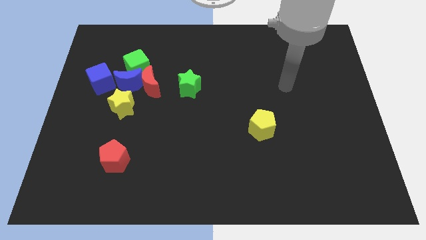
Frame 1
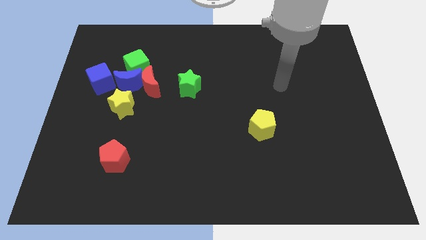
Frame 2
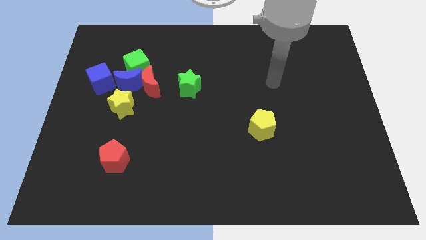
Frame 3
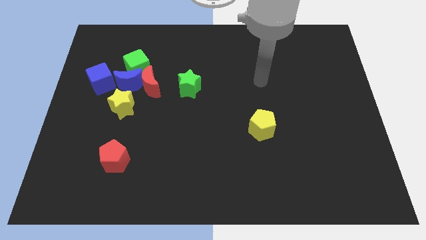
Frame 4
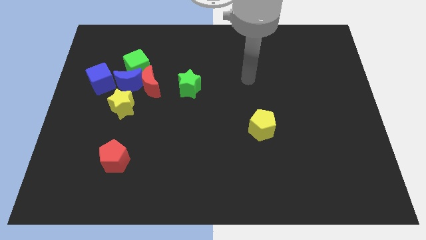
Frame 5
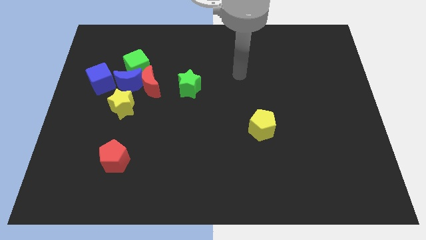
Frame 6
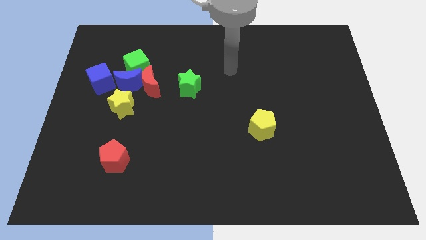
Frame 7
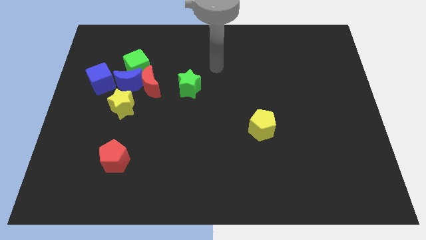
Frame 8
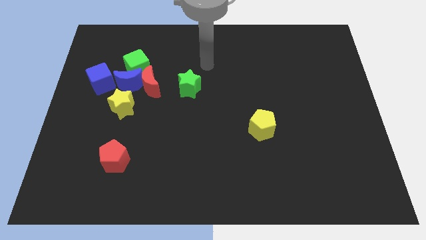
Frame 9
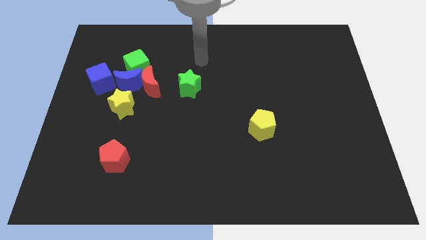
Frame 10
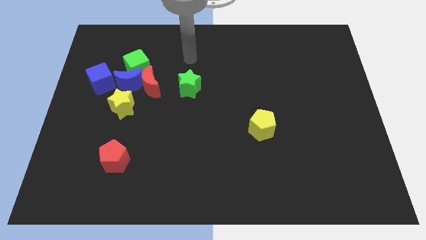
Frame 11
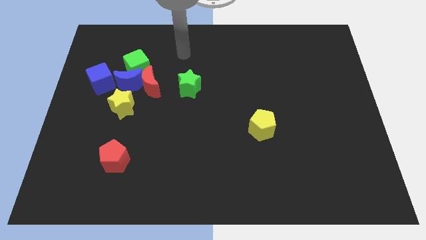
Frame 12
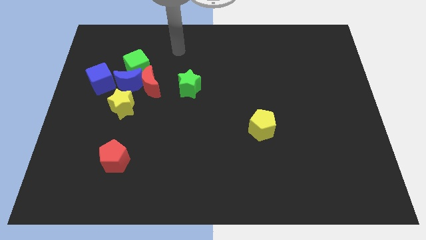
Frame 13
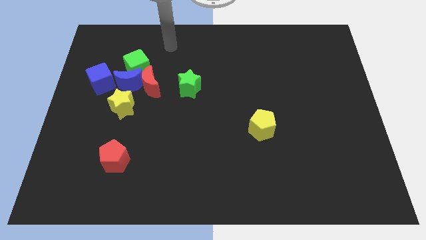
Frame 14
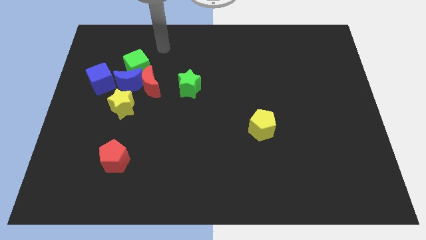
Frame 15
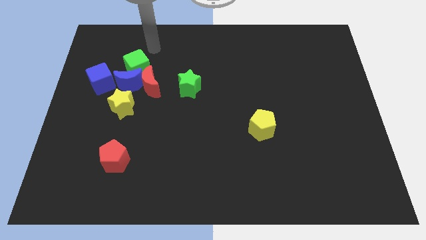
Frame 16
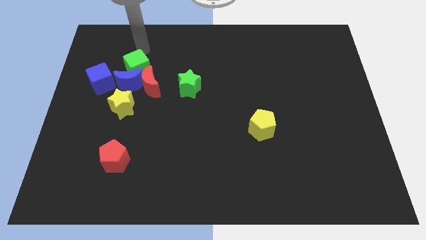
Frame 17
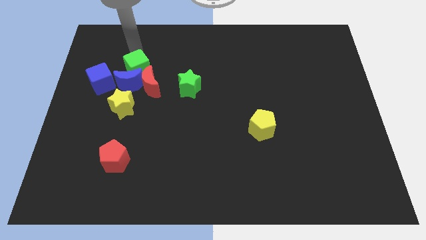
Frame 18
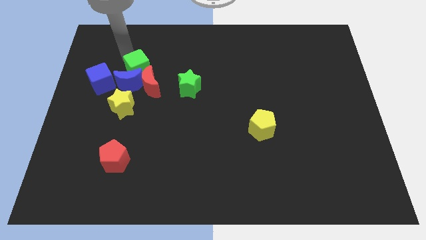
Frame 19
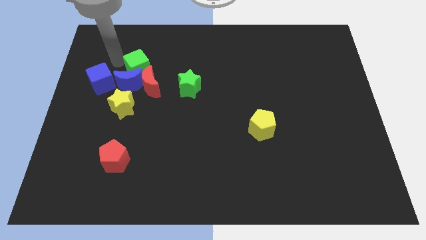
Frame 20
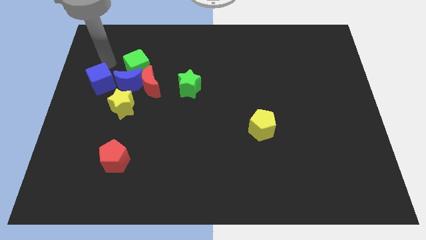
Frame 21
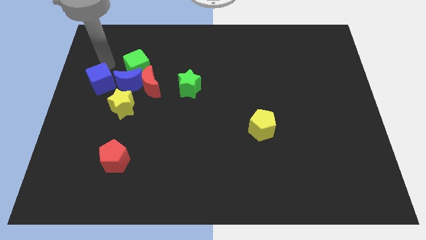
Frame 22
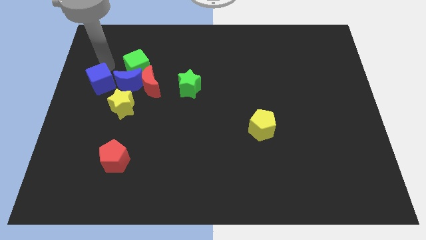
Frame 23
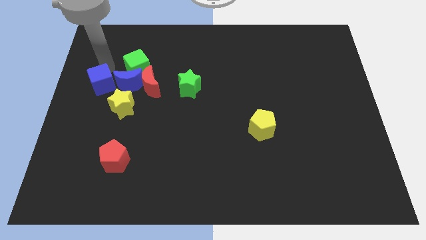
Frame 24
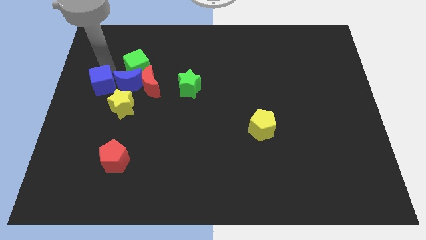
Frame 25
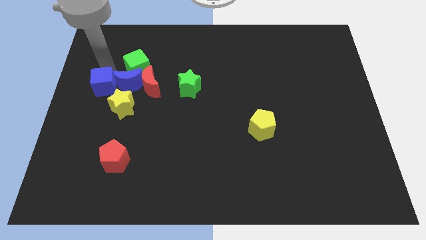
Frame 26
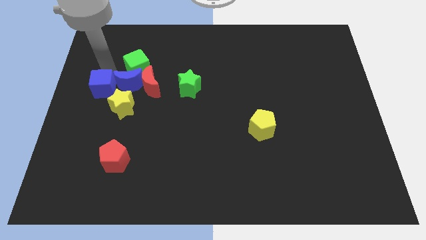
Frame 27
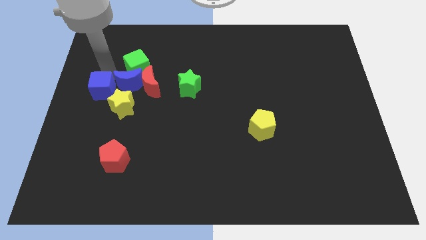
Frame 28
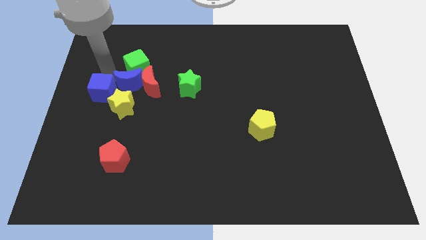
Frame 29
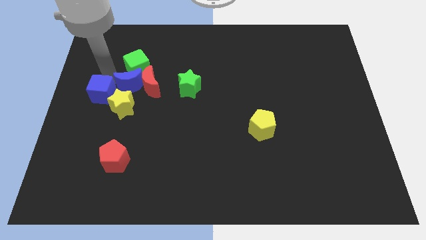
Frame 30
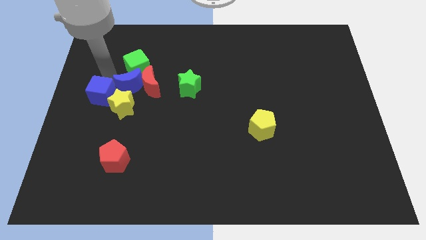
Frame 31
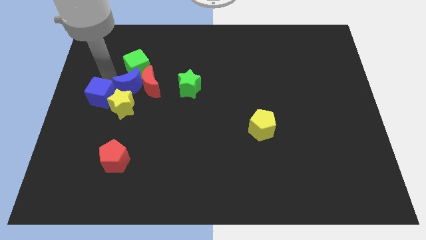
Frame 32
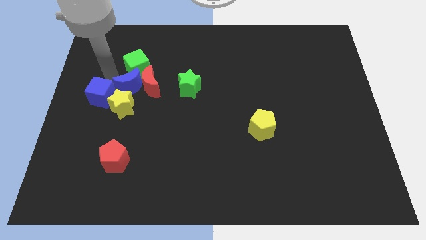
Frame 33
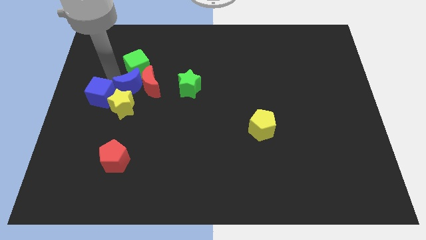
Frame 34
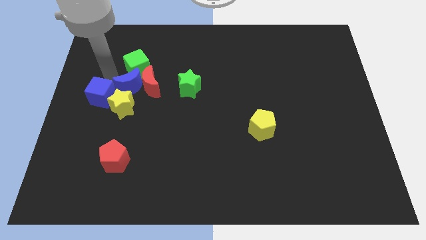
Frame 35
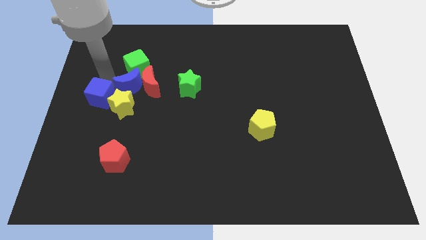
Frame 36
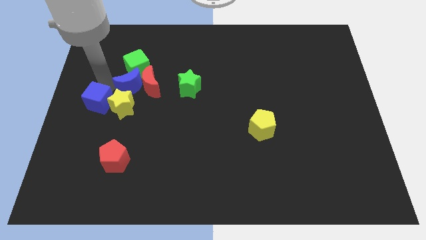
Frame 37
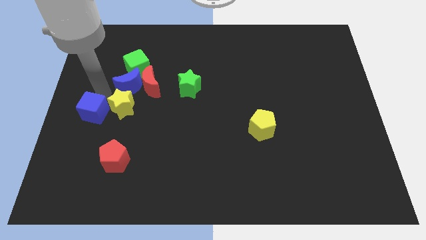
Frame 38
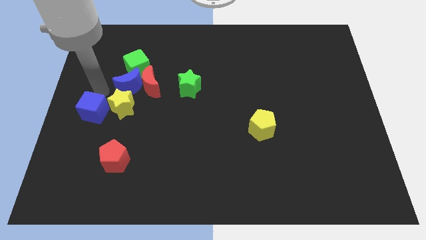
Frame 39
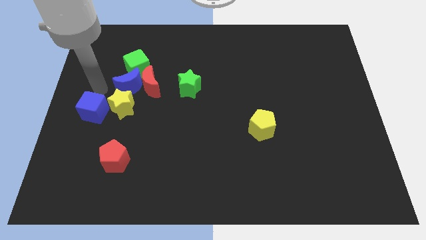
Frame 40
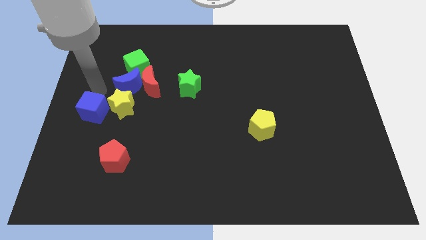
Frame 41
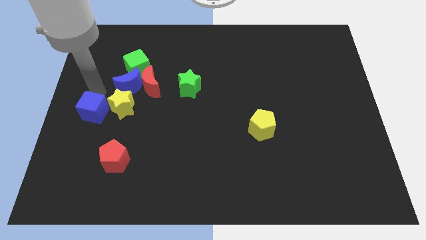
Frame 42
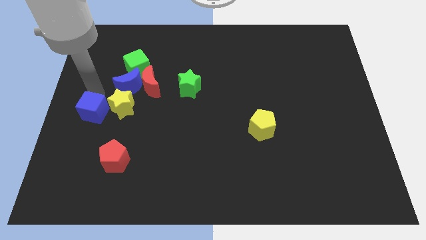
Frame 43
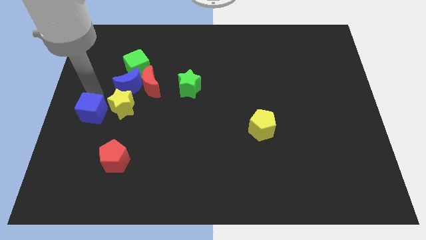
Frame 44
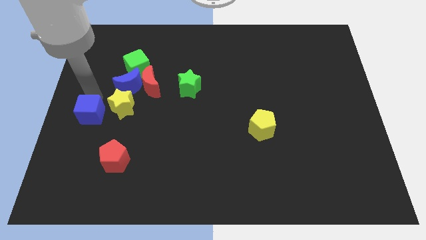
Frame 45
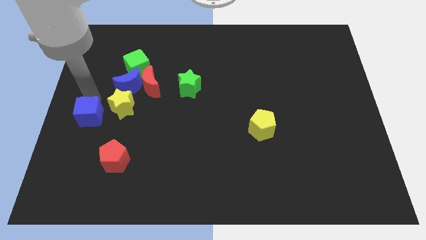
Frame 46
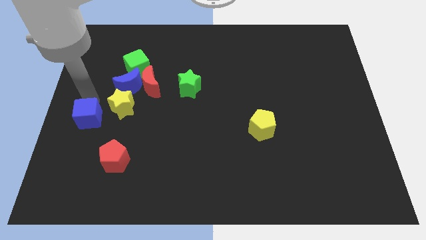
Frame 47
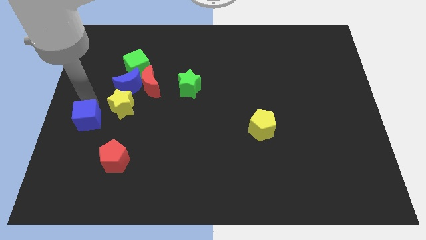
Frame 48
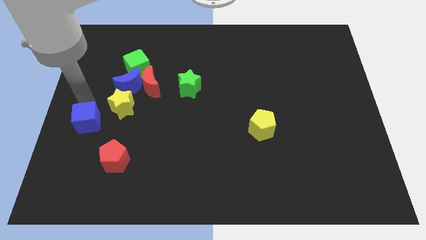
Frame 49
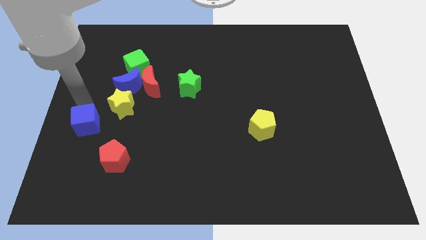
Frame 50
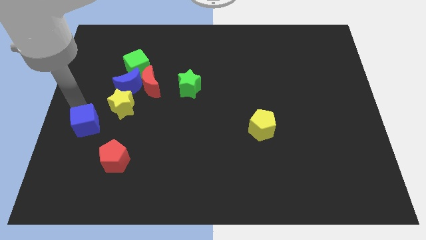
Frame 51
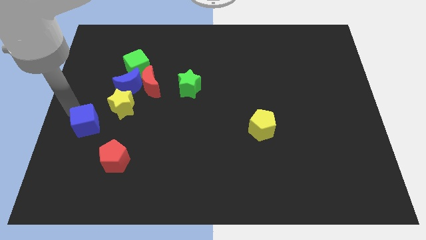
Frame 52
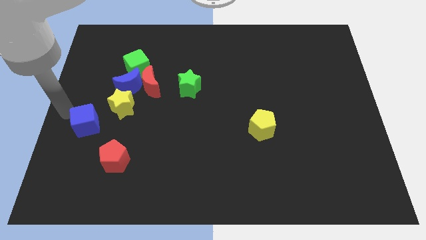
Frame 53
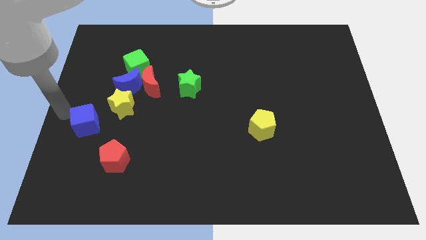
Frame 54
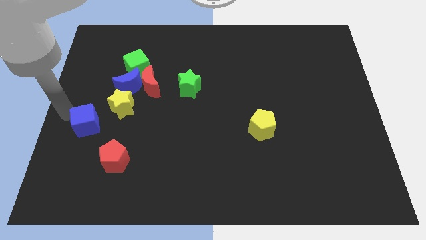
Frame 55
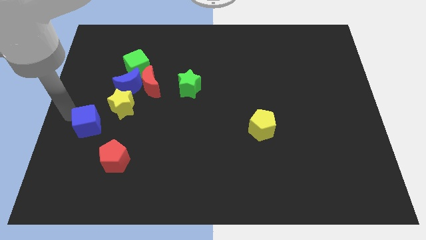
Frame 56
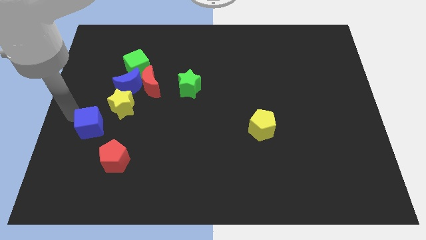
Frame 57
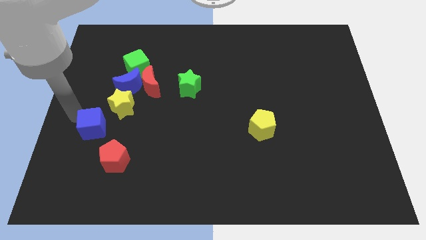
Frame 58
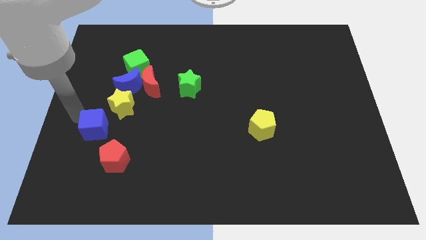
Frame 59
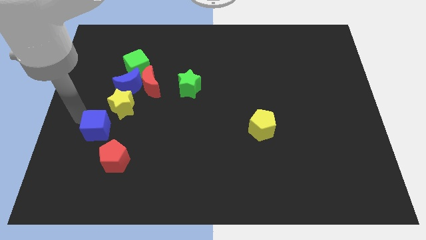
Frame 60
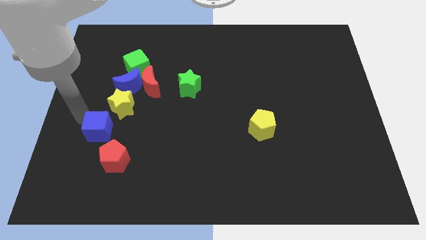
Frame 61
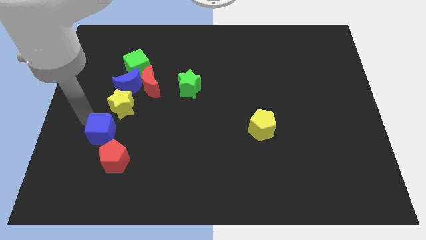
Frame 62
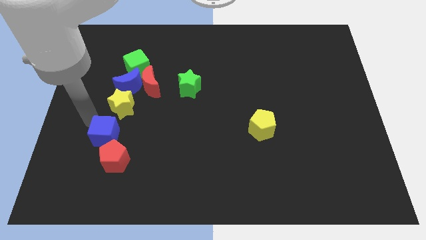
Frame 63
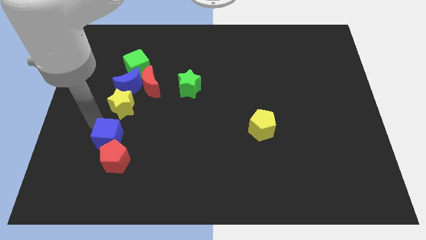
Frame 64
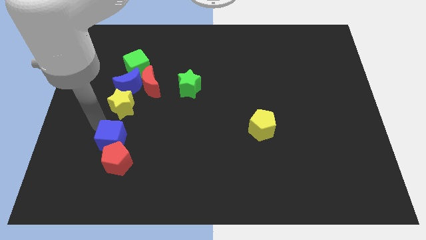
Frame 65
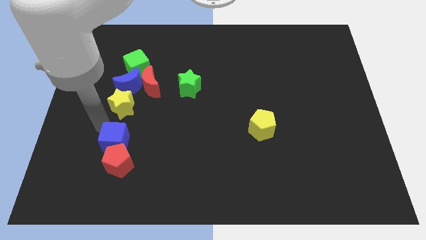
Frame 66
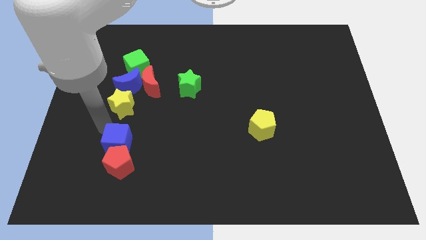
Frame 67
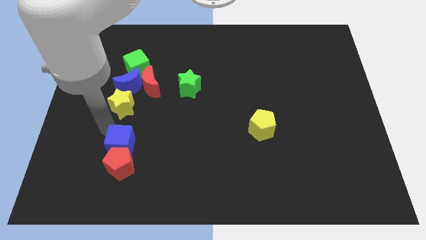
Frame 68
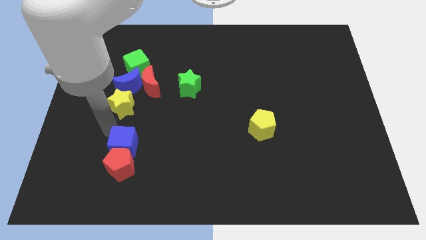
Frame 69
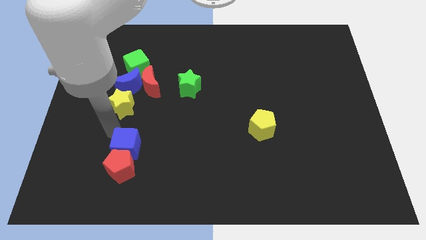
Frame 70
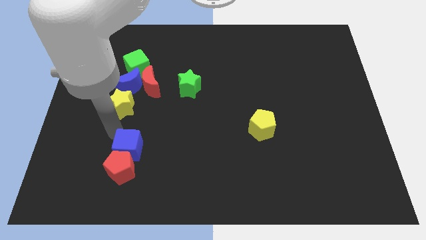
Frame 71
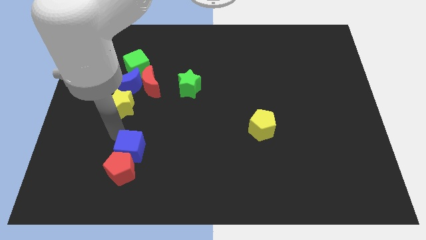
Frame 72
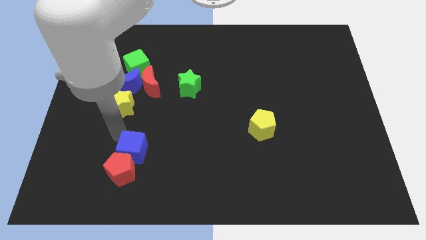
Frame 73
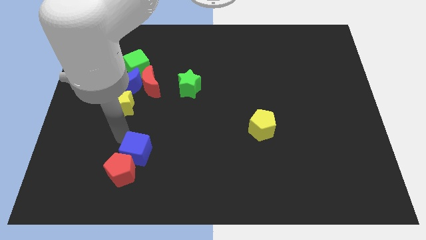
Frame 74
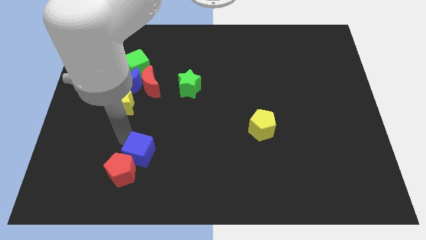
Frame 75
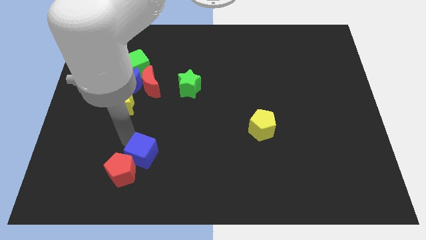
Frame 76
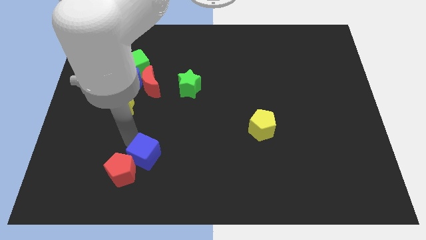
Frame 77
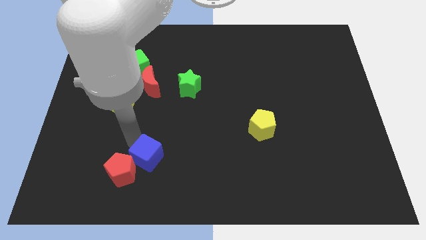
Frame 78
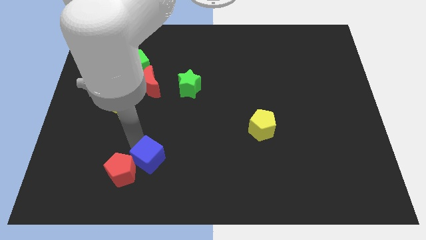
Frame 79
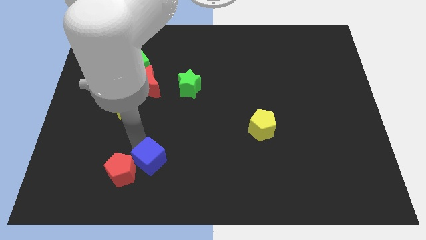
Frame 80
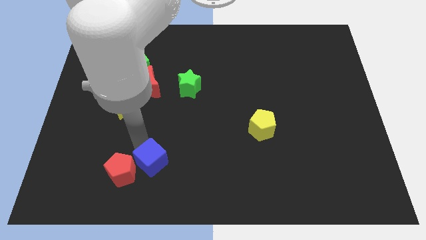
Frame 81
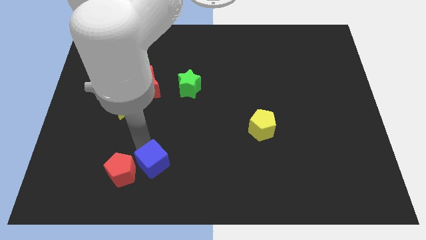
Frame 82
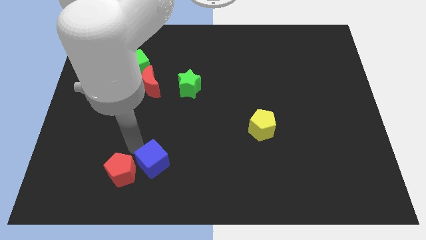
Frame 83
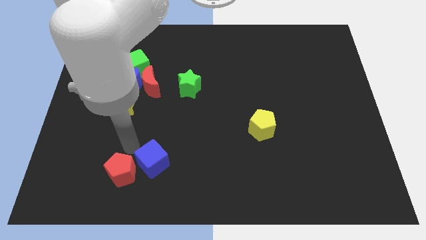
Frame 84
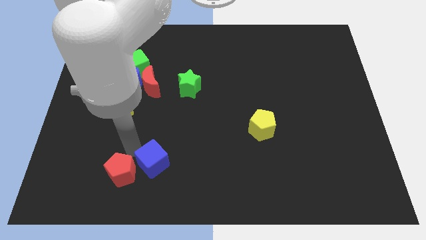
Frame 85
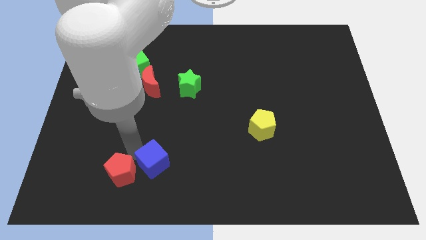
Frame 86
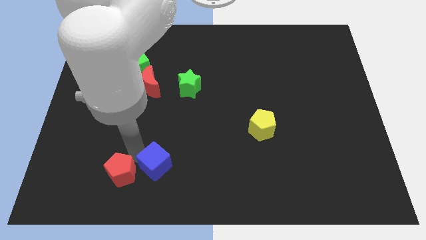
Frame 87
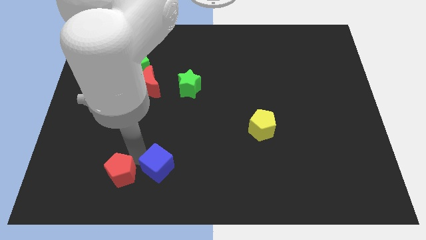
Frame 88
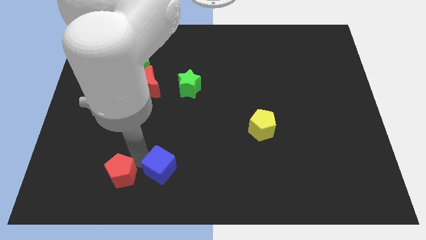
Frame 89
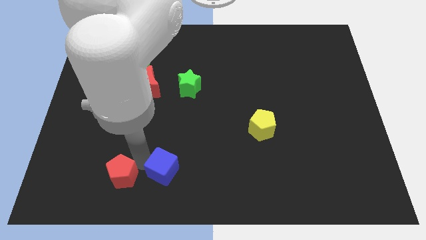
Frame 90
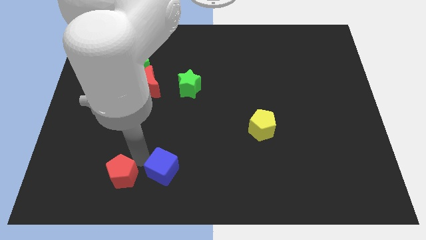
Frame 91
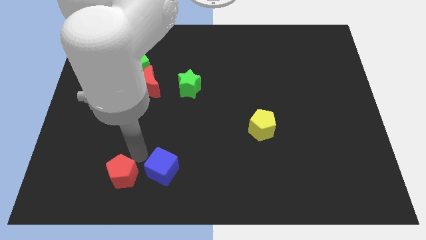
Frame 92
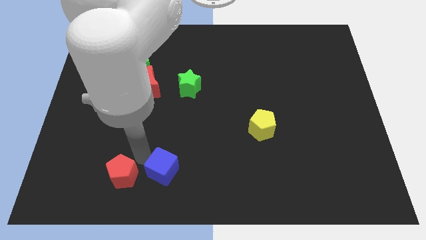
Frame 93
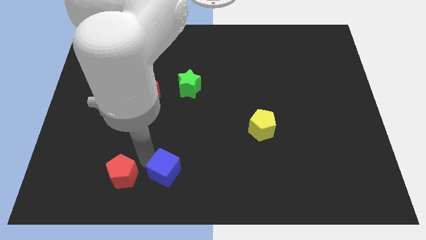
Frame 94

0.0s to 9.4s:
slide the blue cube to the bottom side
